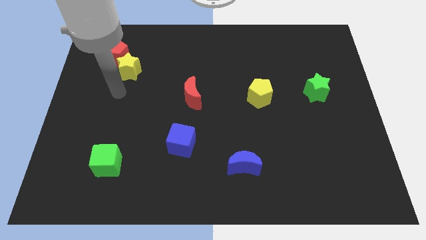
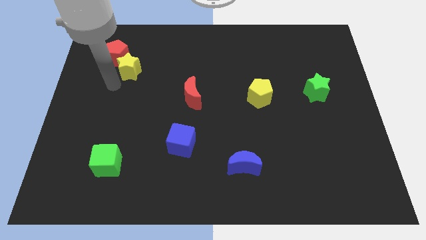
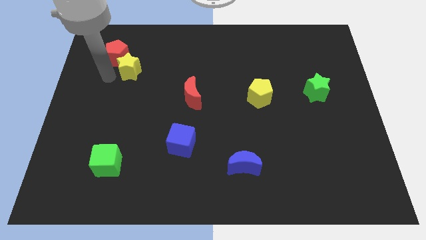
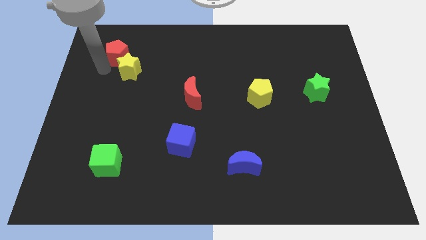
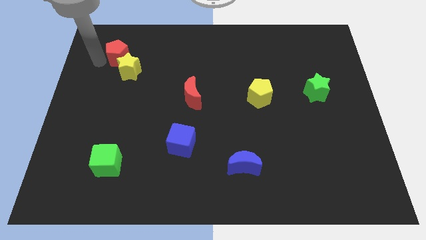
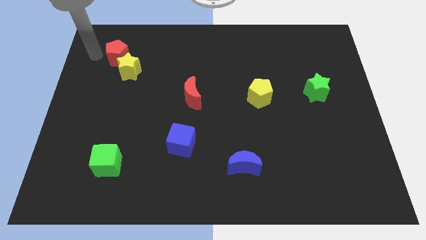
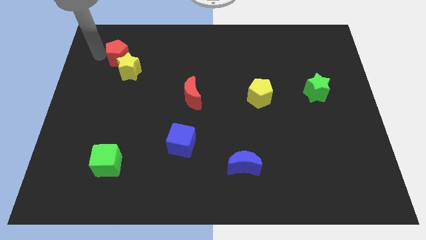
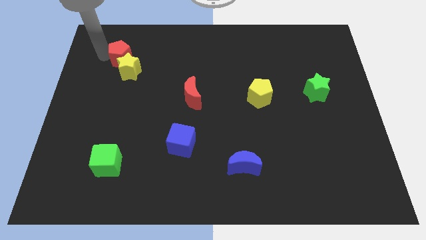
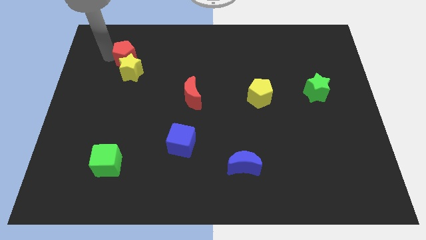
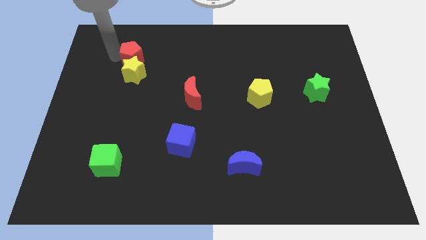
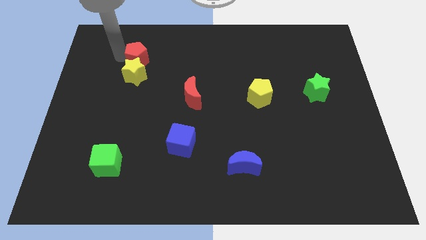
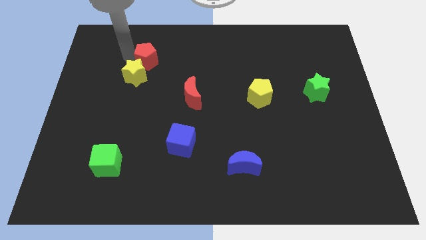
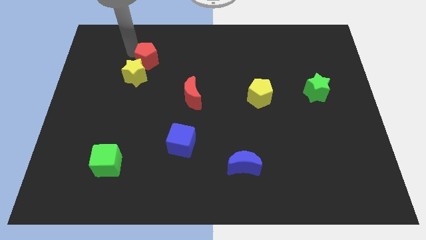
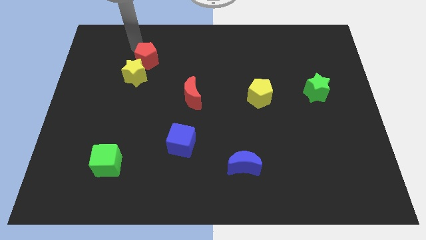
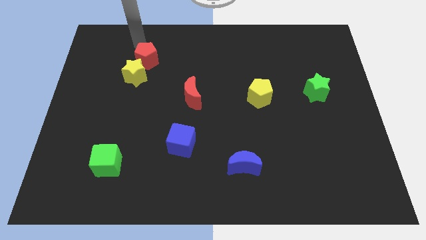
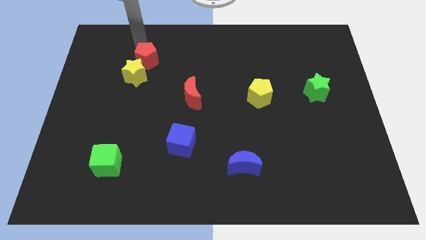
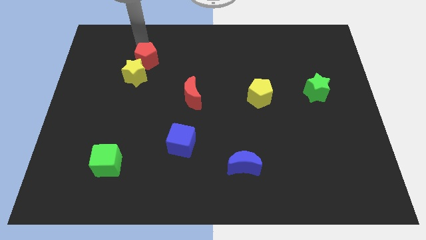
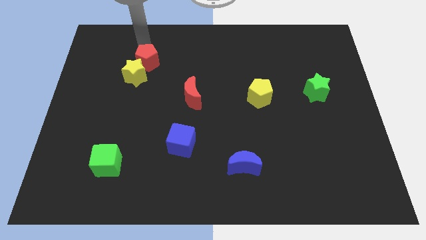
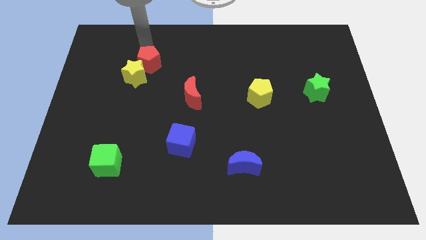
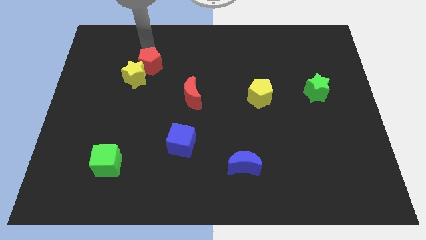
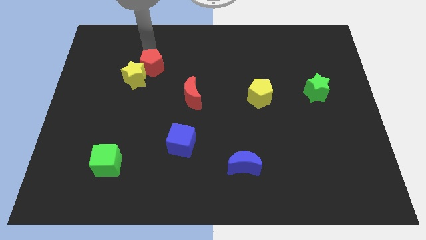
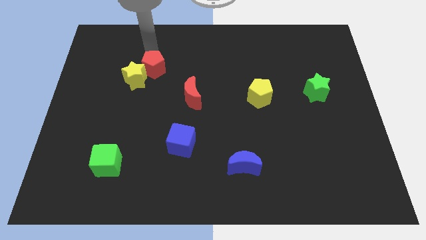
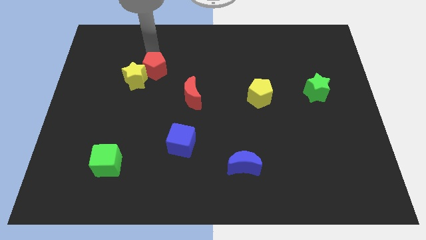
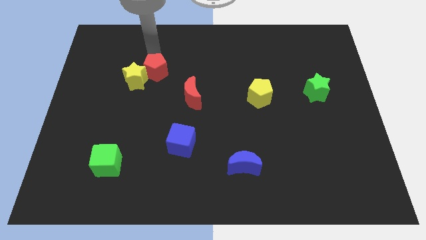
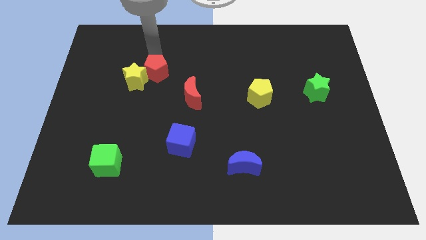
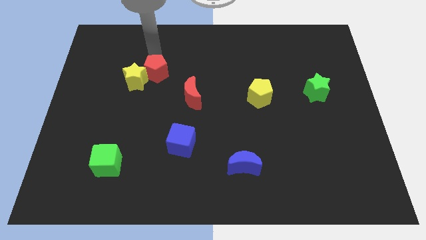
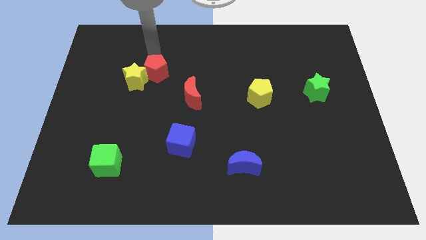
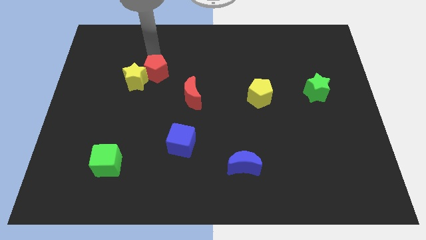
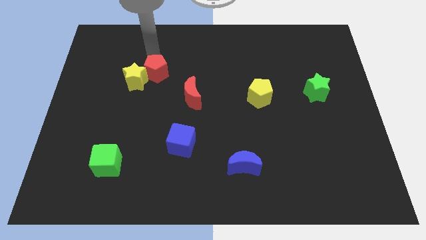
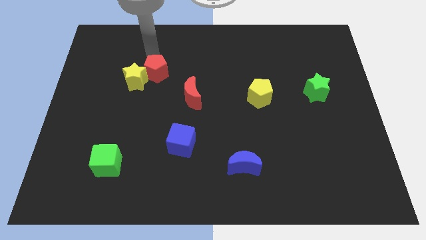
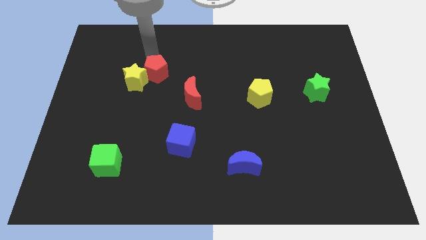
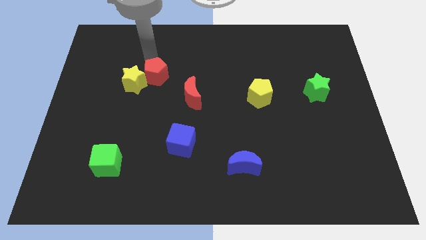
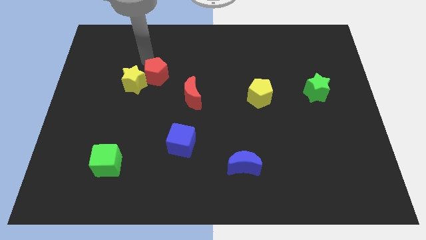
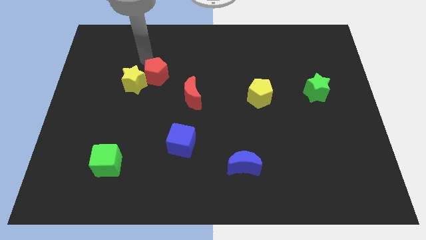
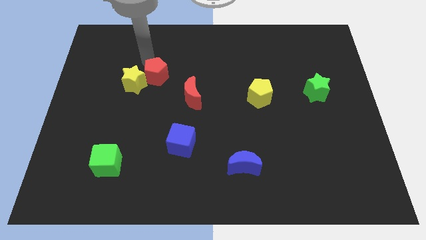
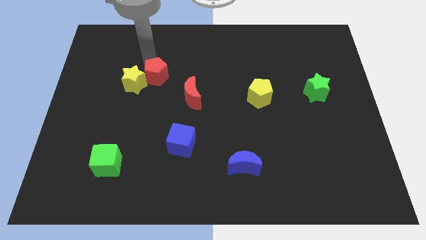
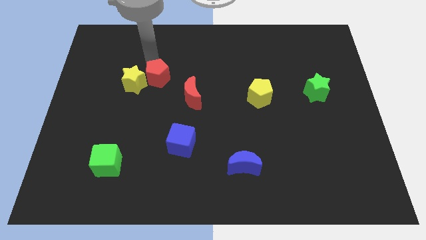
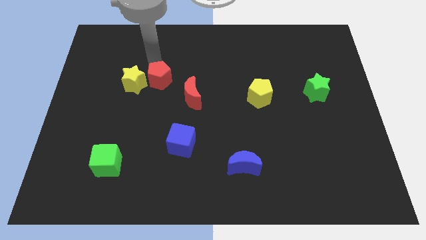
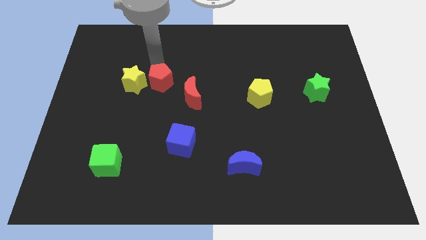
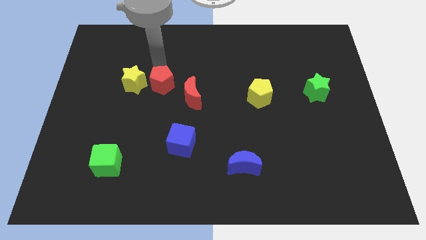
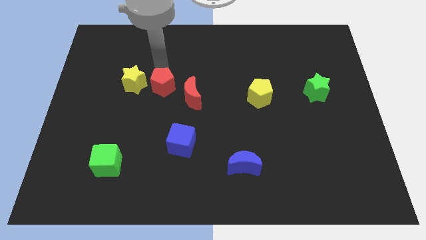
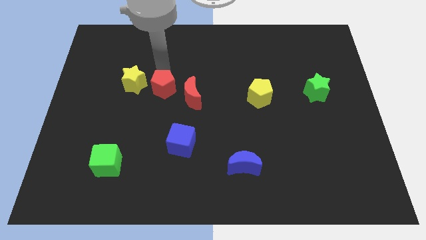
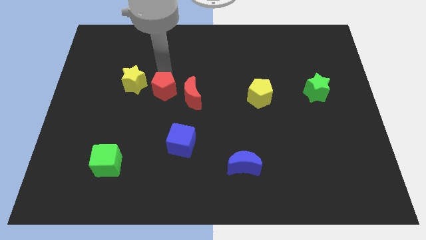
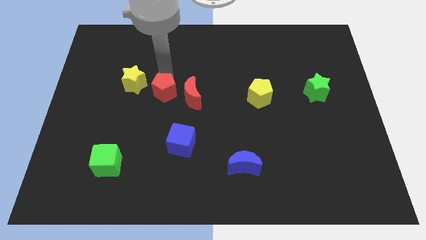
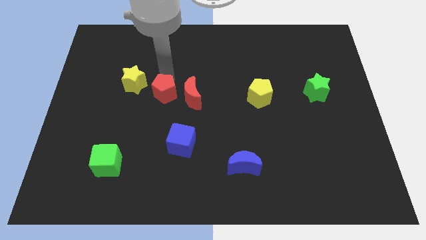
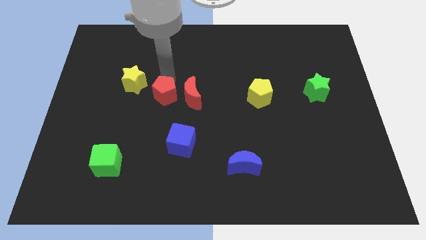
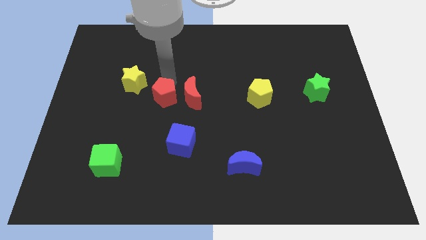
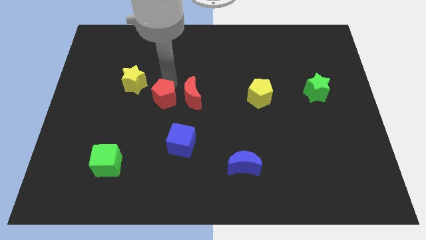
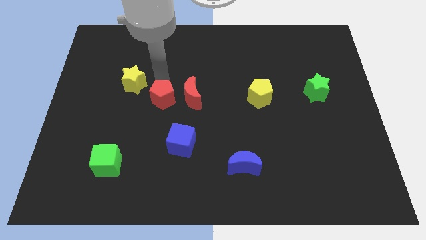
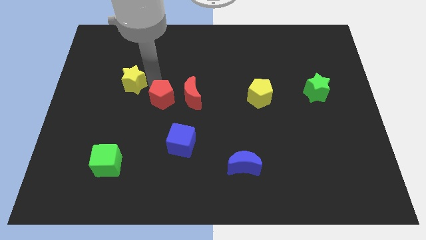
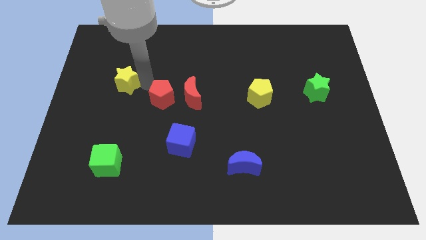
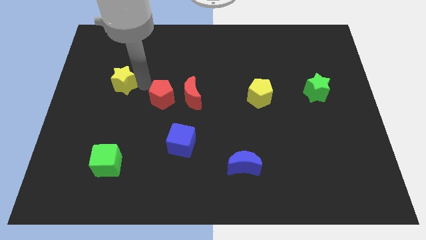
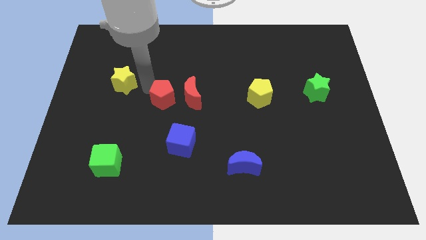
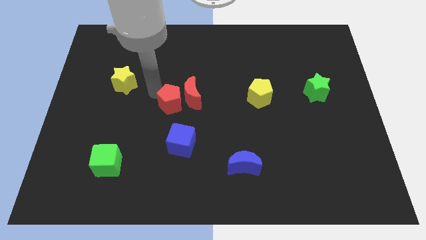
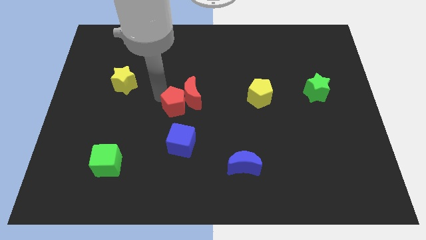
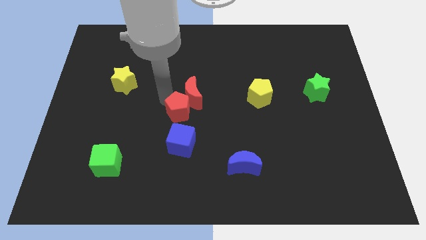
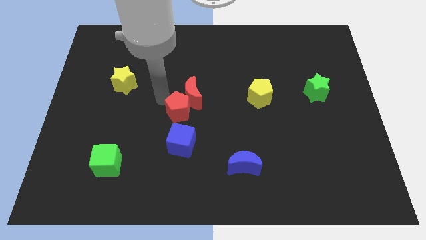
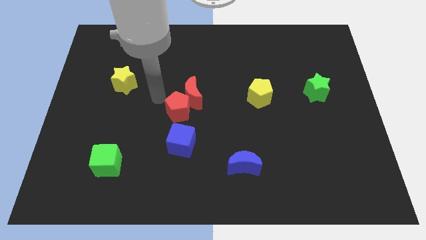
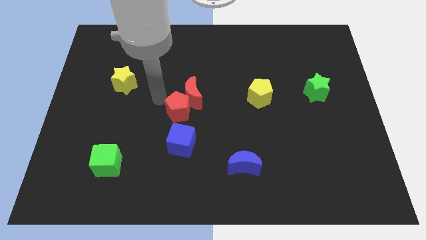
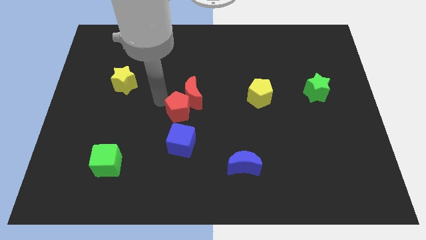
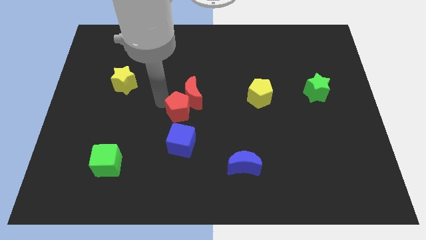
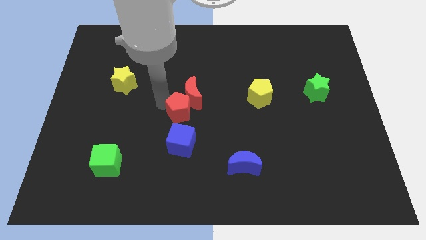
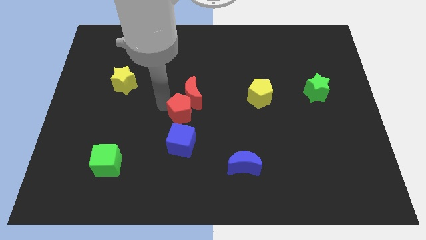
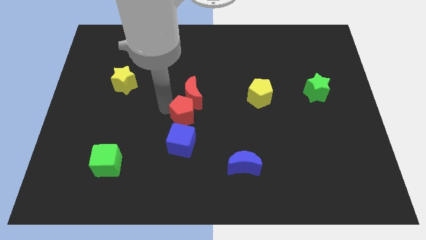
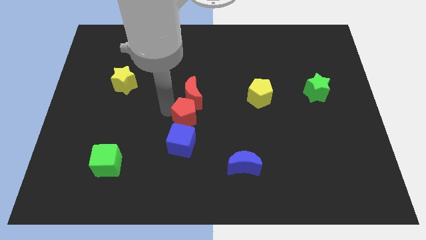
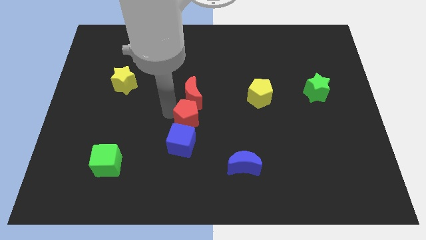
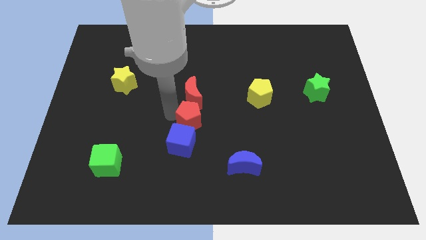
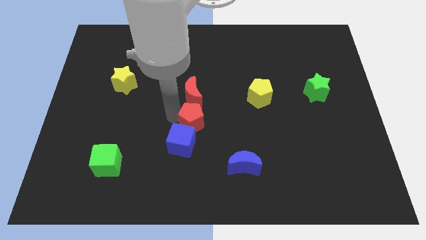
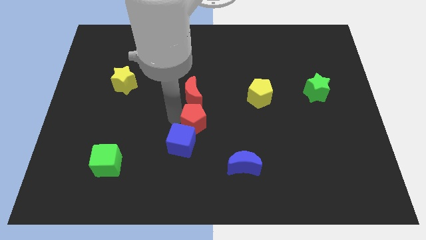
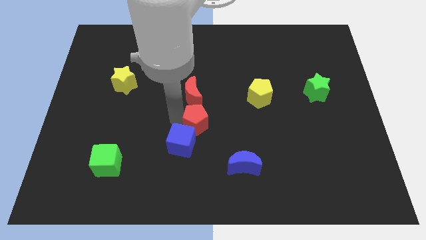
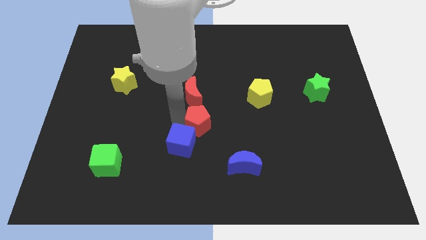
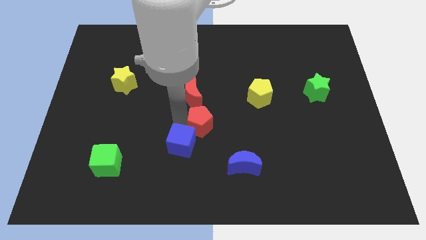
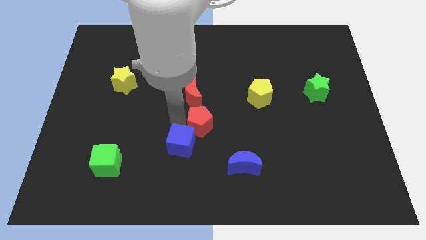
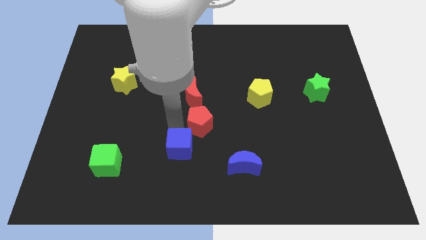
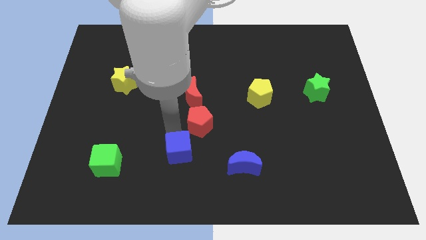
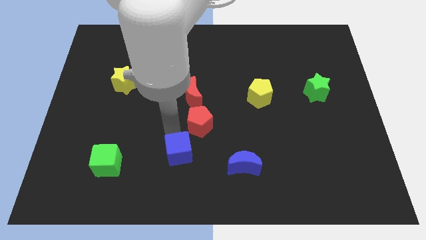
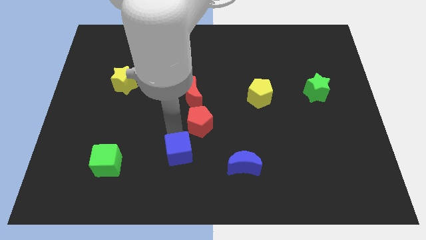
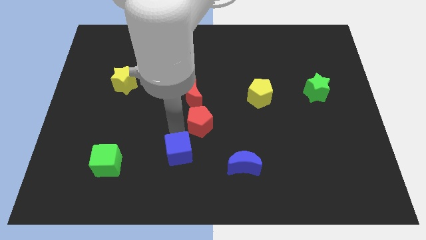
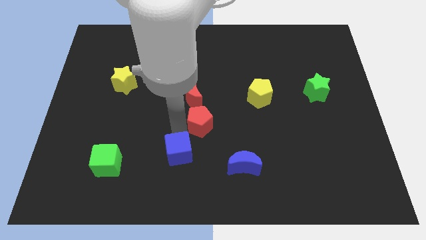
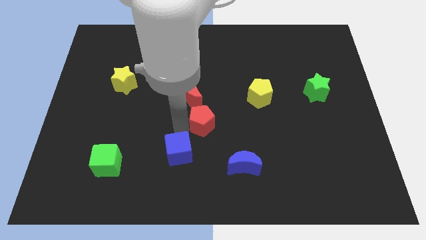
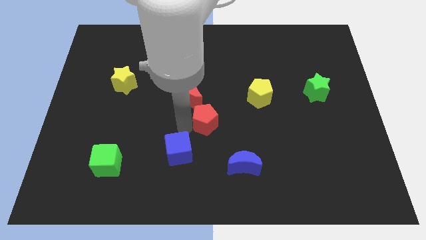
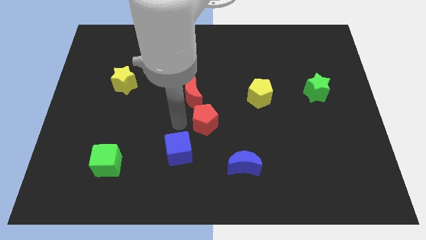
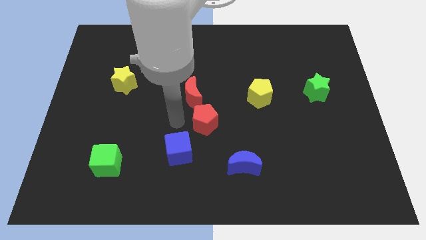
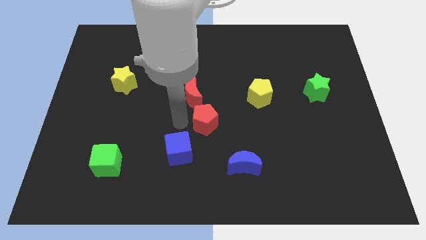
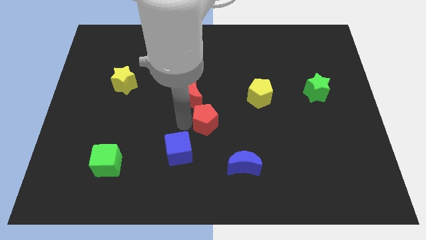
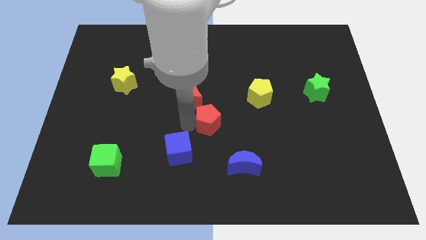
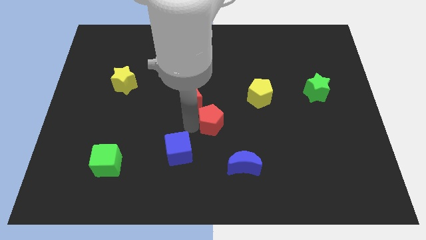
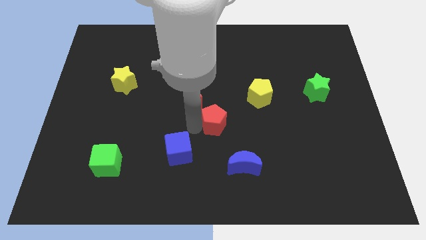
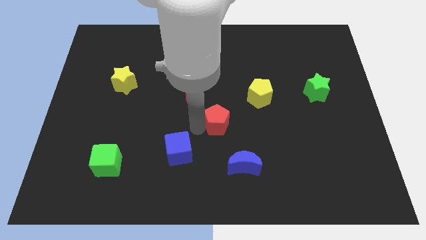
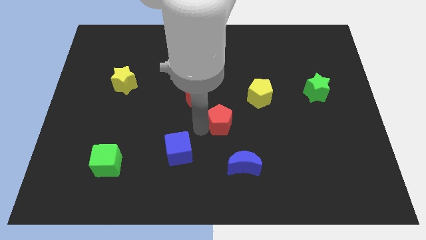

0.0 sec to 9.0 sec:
move the red pentagon to the top side of the blue moon
